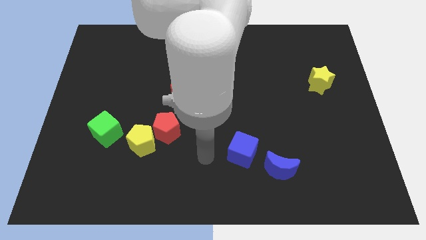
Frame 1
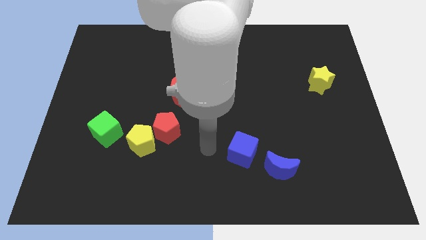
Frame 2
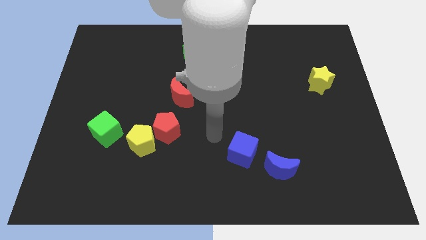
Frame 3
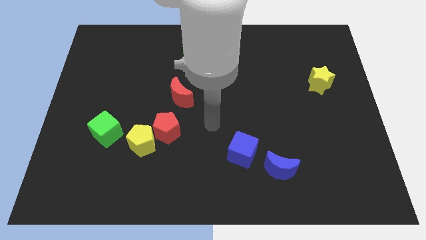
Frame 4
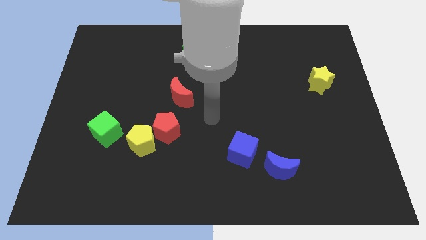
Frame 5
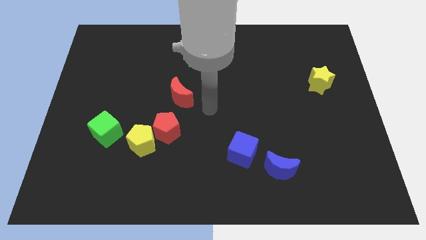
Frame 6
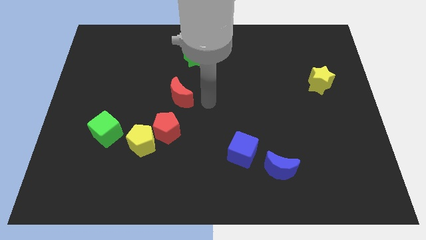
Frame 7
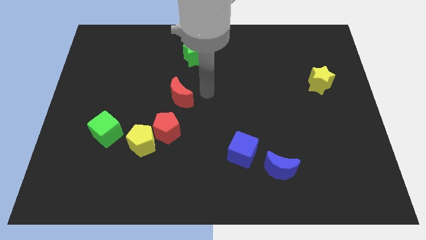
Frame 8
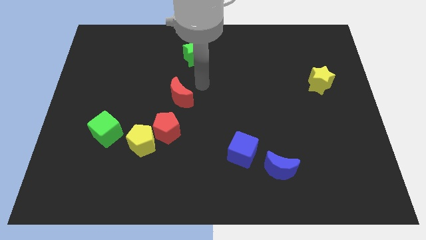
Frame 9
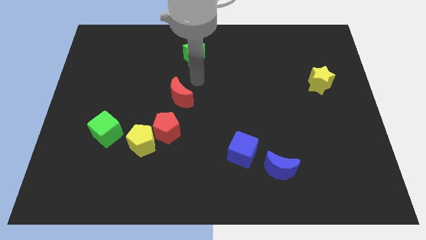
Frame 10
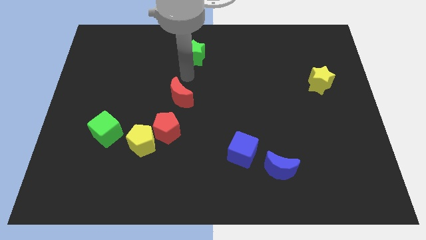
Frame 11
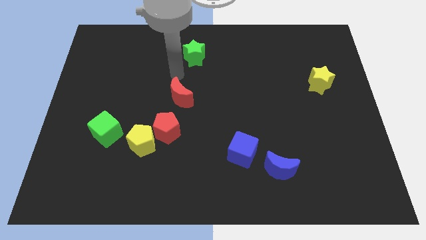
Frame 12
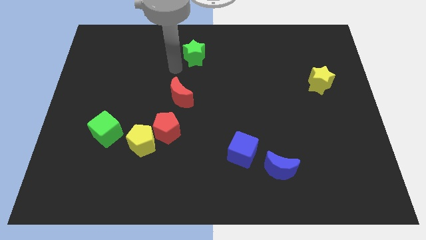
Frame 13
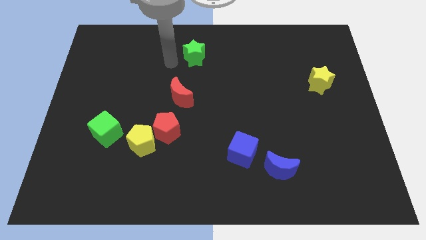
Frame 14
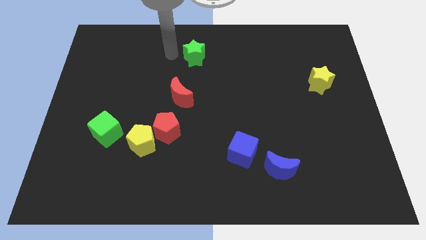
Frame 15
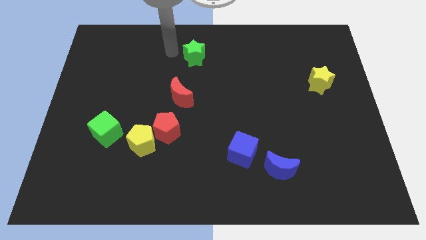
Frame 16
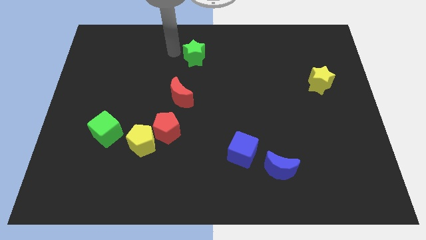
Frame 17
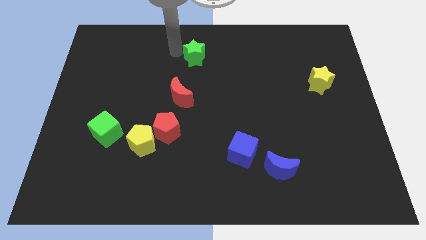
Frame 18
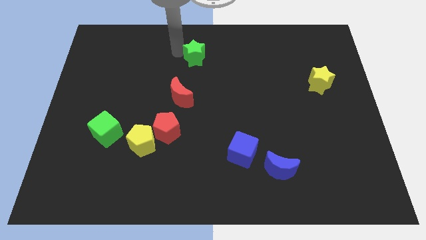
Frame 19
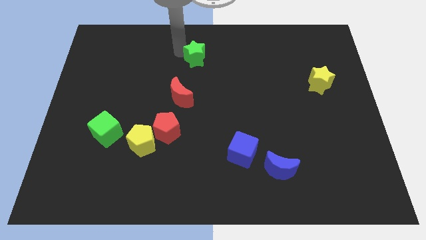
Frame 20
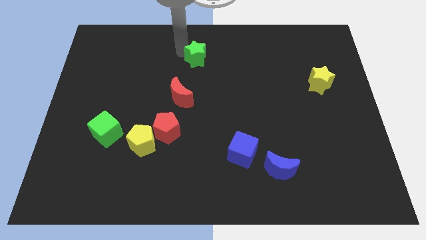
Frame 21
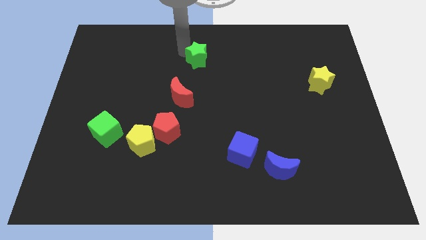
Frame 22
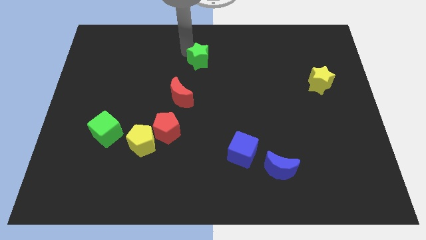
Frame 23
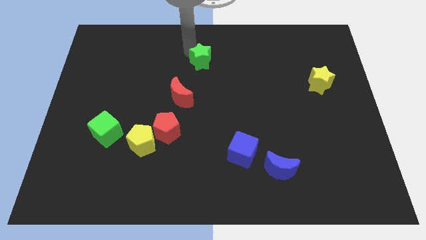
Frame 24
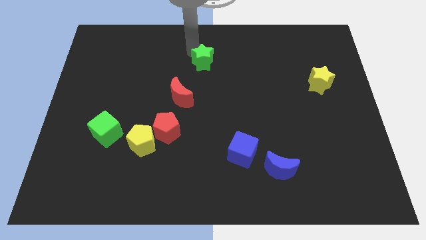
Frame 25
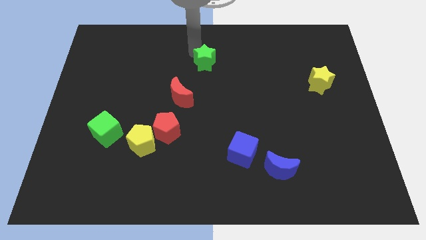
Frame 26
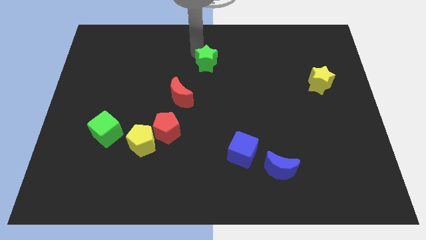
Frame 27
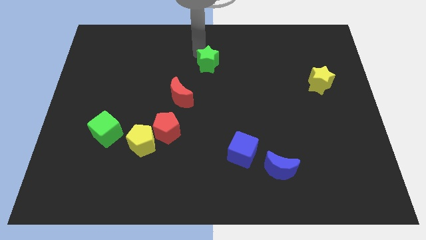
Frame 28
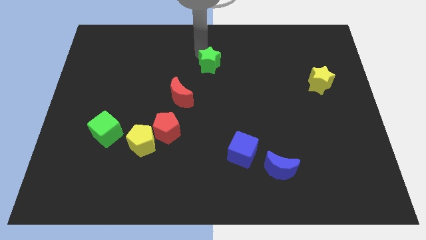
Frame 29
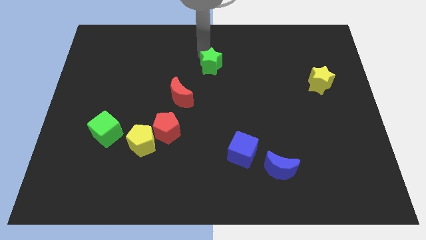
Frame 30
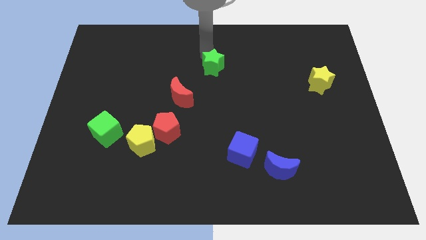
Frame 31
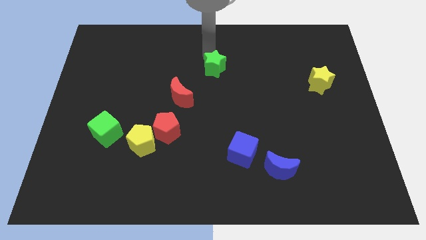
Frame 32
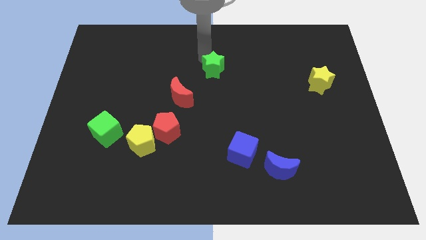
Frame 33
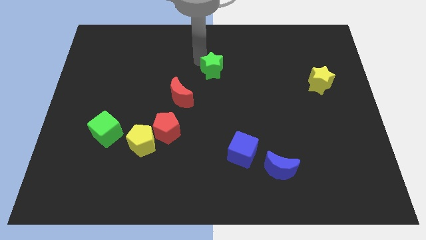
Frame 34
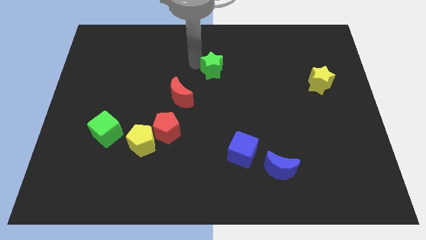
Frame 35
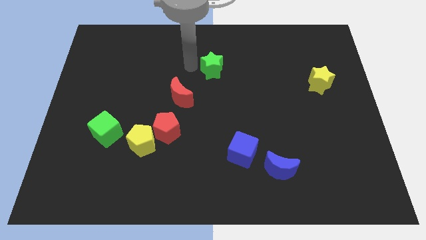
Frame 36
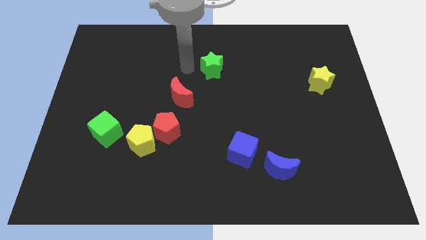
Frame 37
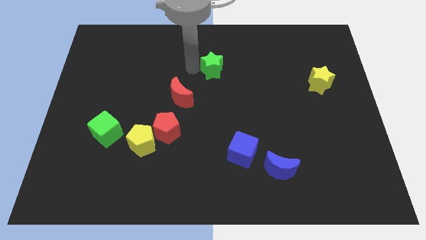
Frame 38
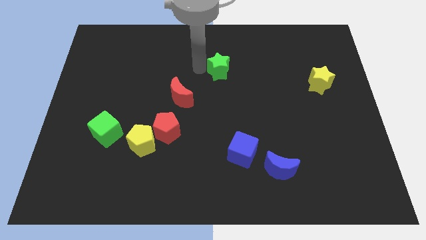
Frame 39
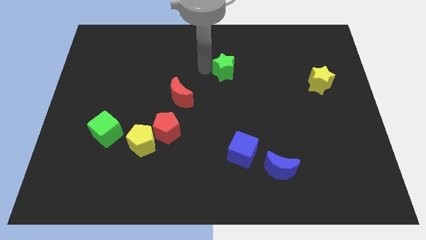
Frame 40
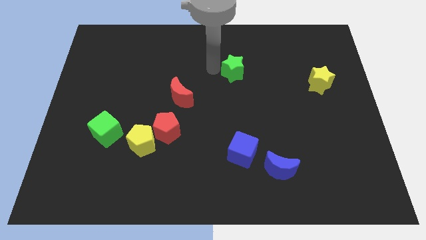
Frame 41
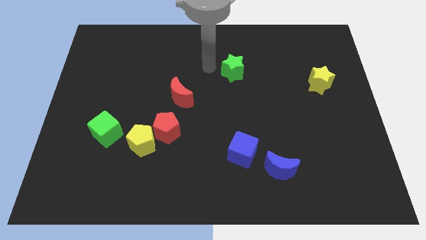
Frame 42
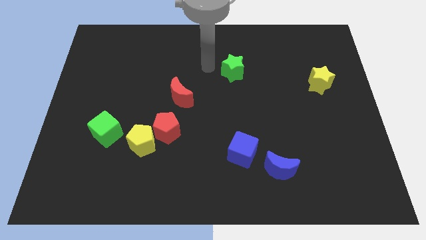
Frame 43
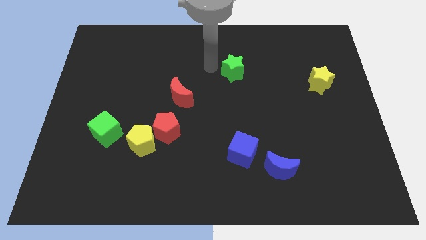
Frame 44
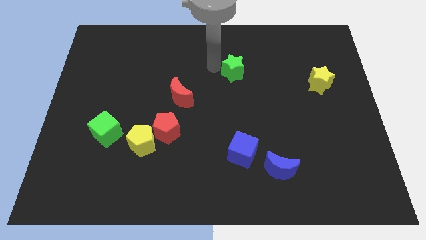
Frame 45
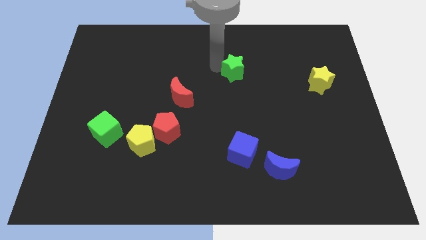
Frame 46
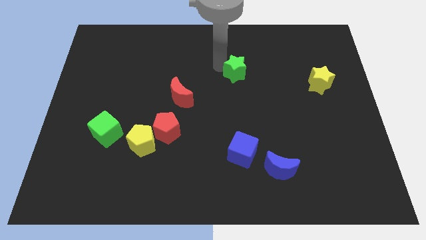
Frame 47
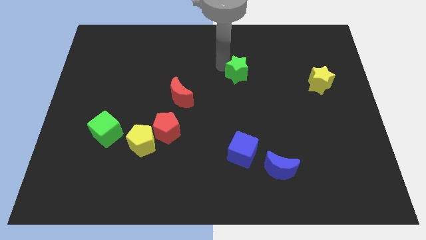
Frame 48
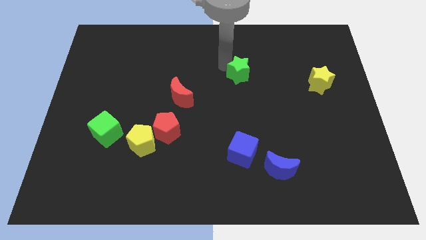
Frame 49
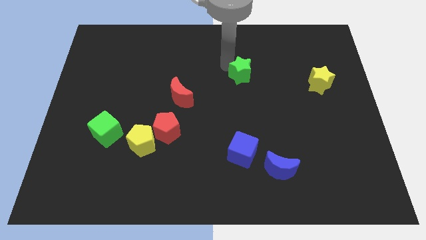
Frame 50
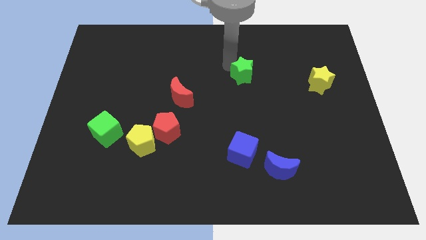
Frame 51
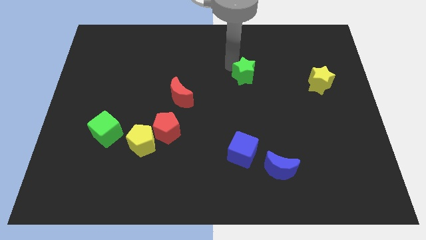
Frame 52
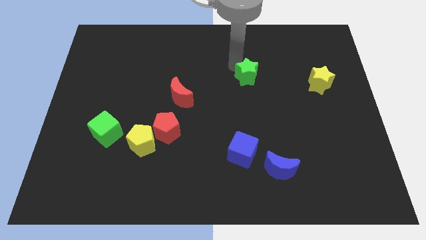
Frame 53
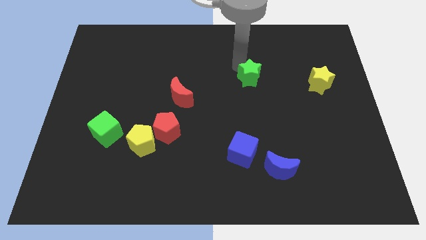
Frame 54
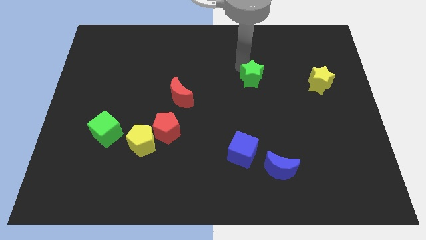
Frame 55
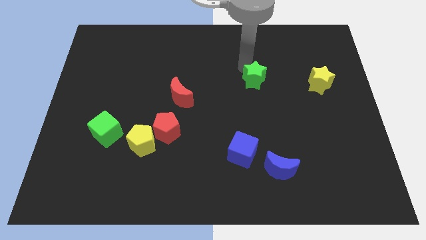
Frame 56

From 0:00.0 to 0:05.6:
slide the green star left of the yellow star

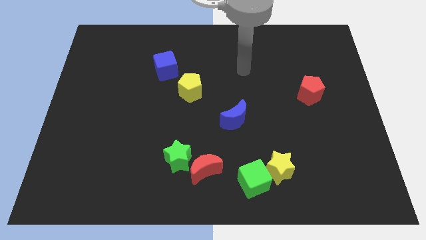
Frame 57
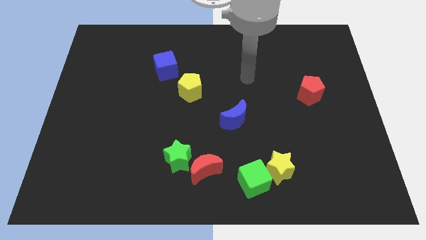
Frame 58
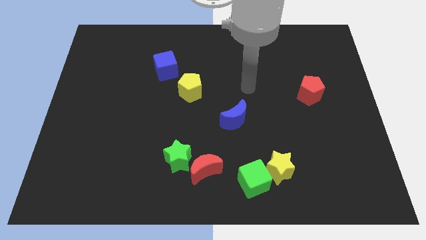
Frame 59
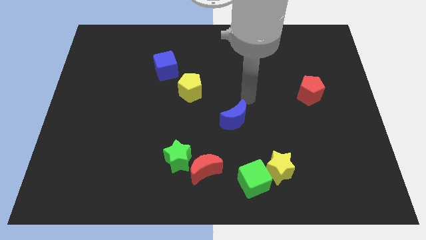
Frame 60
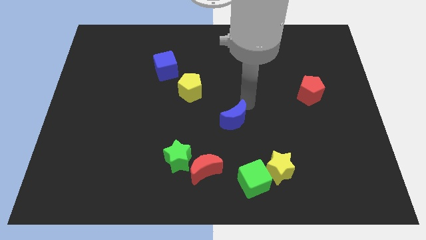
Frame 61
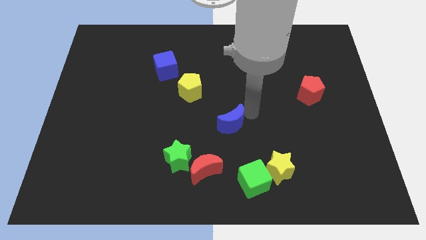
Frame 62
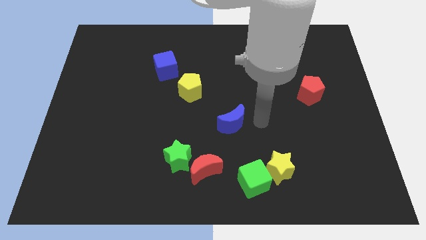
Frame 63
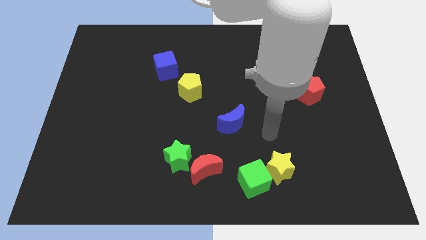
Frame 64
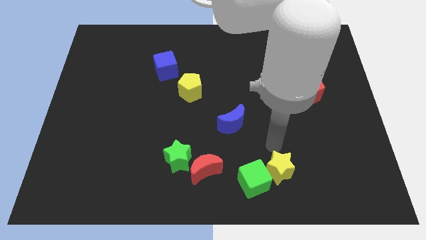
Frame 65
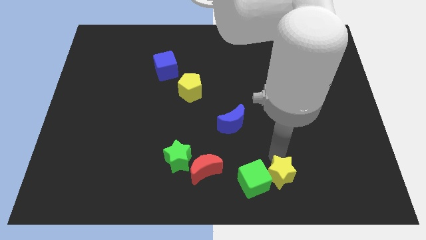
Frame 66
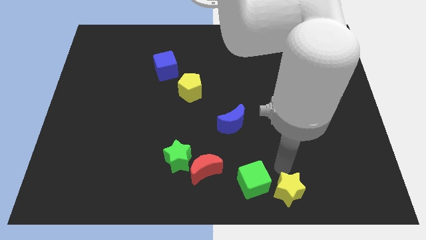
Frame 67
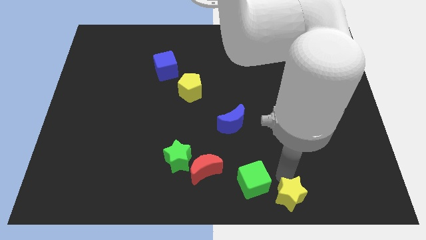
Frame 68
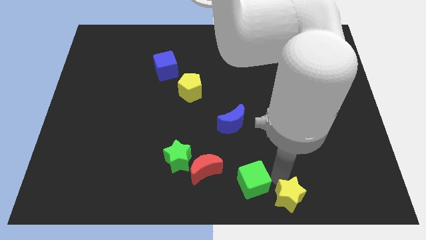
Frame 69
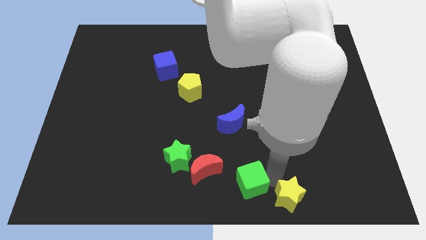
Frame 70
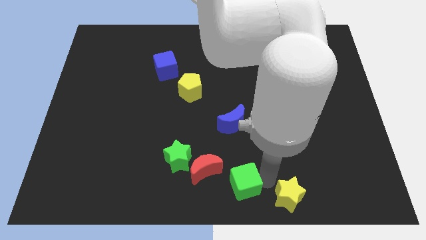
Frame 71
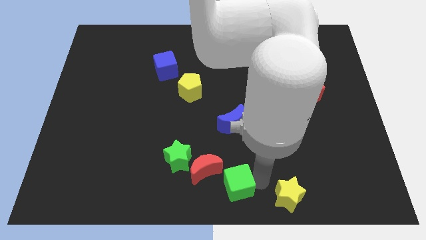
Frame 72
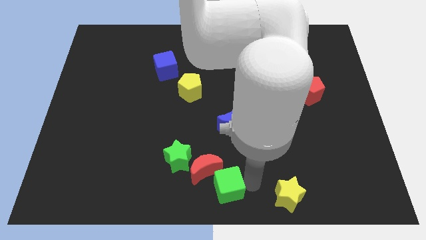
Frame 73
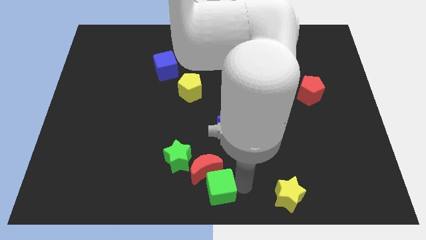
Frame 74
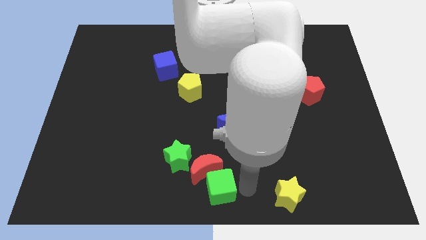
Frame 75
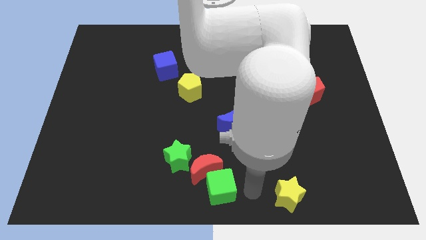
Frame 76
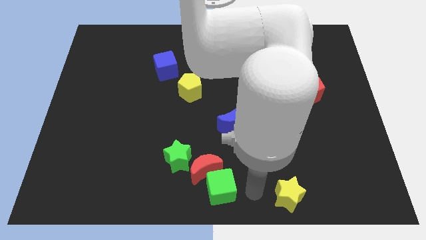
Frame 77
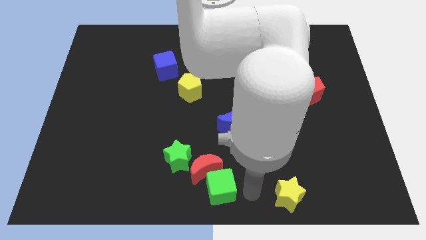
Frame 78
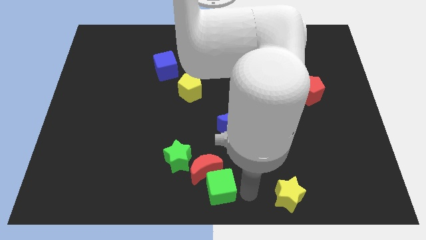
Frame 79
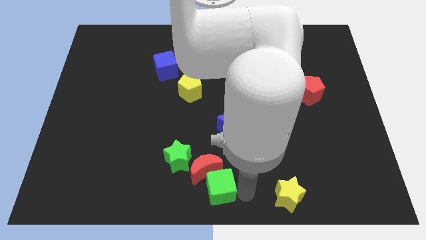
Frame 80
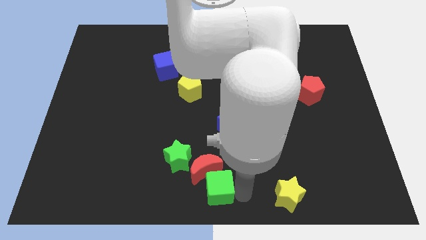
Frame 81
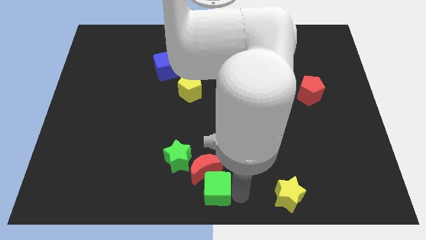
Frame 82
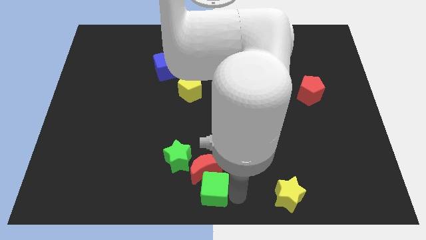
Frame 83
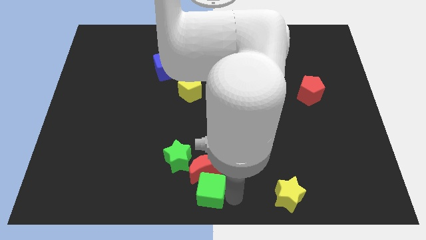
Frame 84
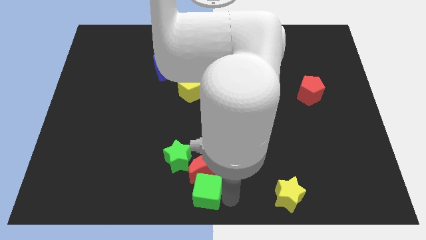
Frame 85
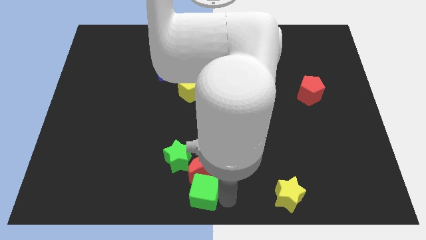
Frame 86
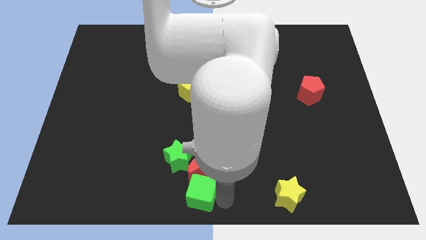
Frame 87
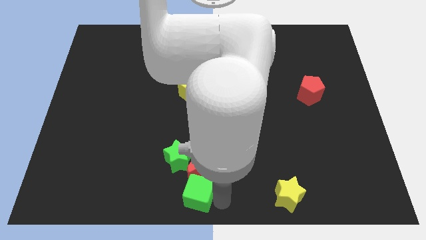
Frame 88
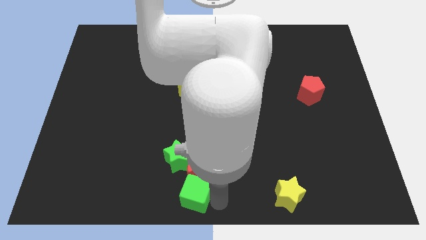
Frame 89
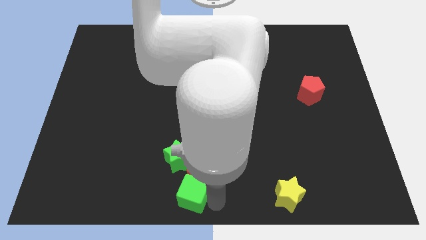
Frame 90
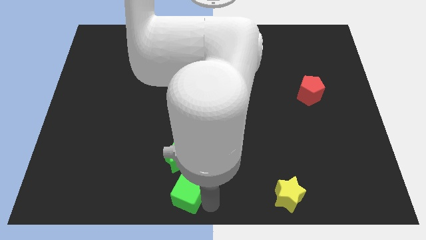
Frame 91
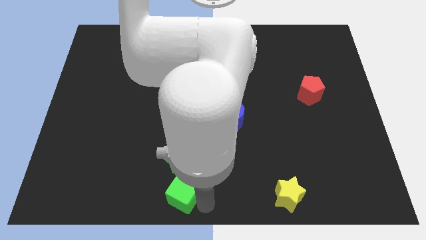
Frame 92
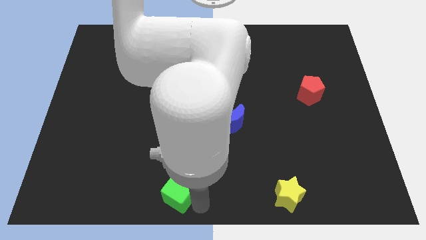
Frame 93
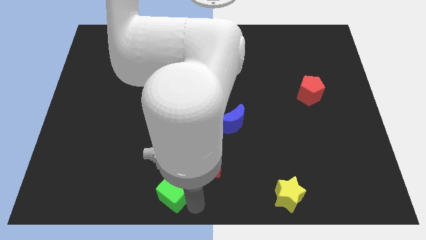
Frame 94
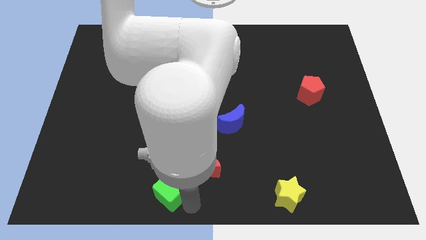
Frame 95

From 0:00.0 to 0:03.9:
slide the green cube just left of the red moon
